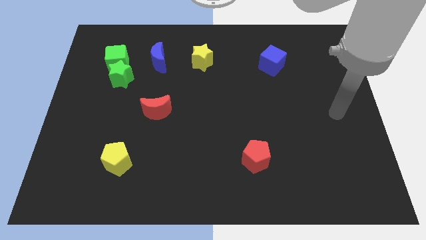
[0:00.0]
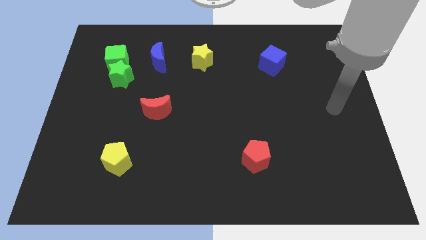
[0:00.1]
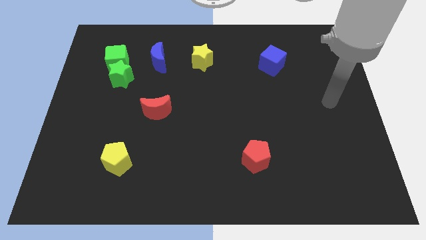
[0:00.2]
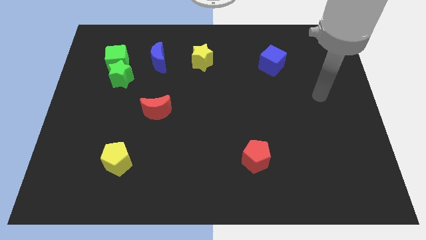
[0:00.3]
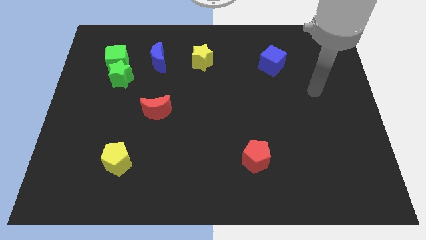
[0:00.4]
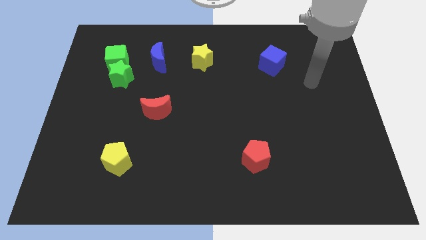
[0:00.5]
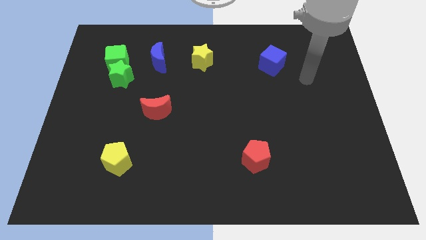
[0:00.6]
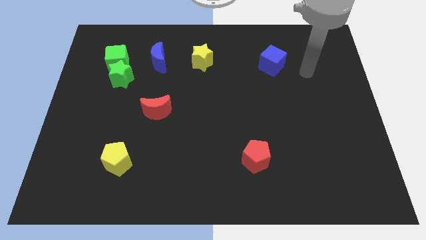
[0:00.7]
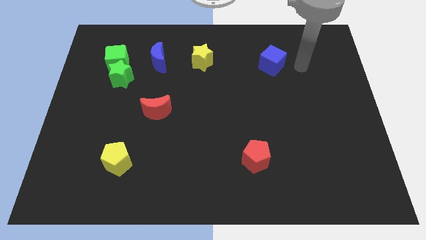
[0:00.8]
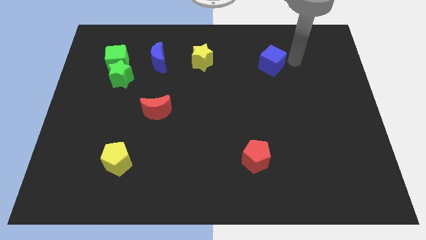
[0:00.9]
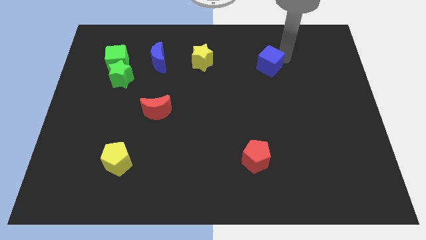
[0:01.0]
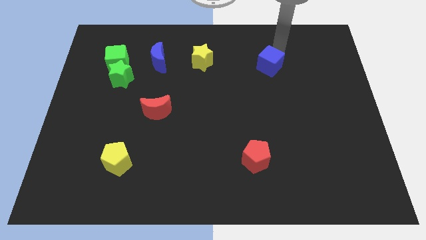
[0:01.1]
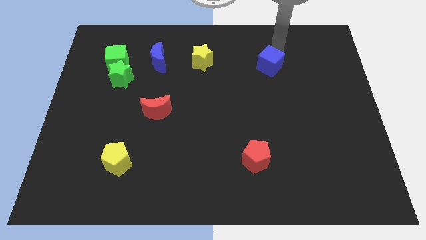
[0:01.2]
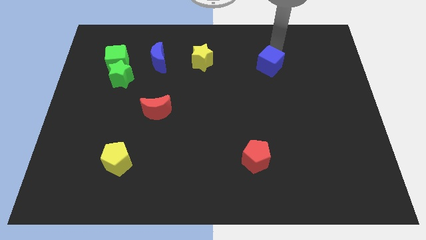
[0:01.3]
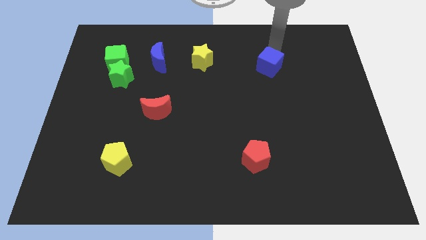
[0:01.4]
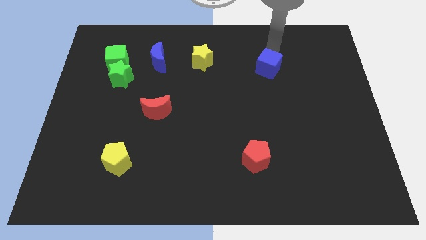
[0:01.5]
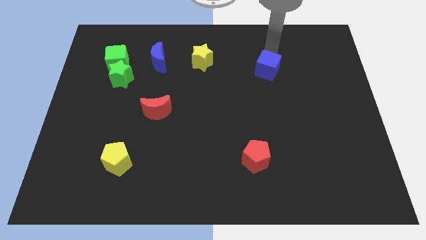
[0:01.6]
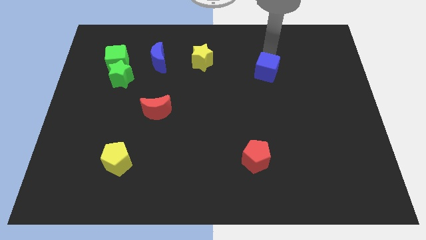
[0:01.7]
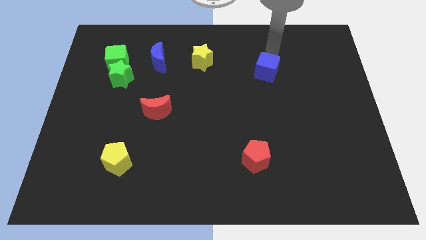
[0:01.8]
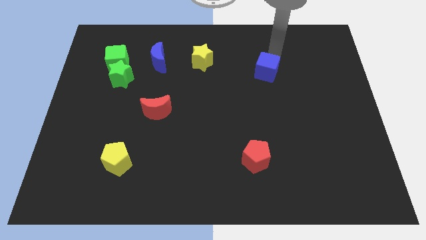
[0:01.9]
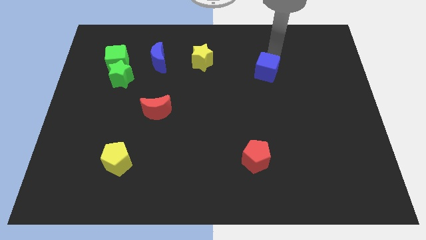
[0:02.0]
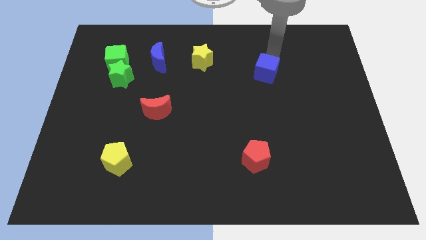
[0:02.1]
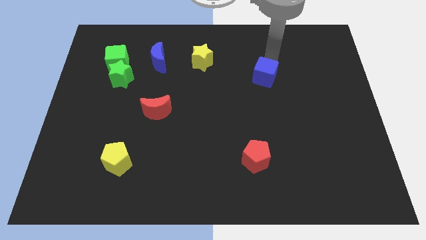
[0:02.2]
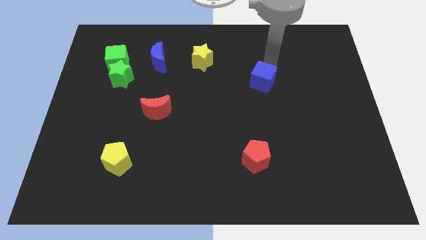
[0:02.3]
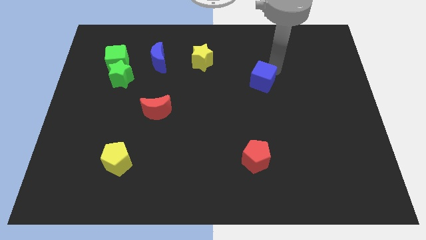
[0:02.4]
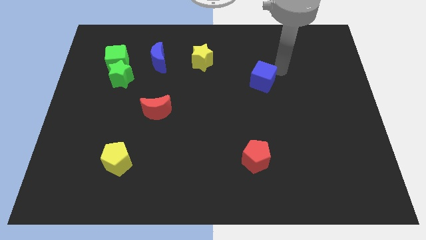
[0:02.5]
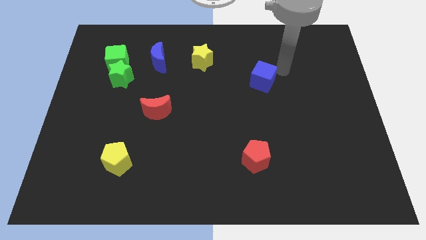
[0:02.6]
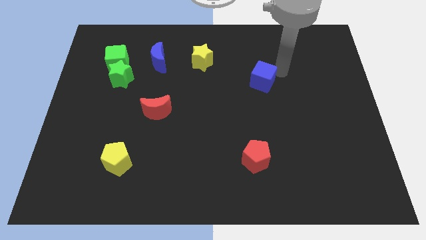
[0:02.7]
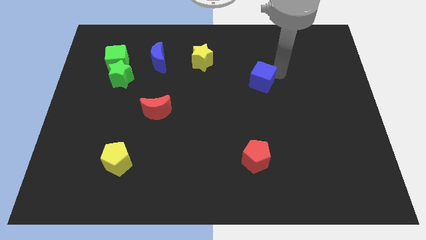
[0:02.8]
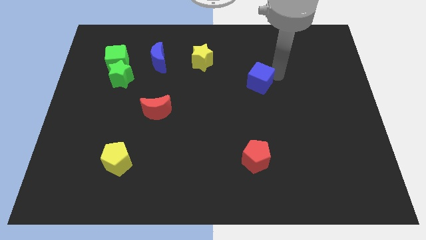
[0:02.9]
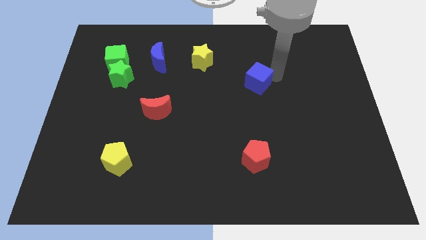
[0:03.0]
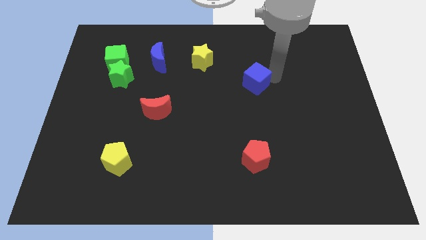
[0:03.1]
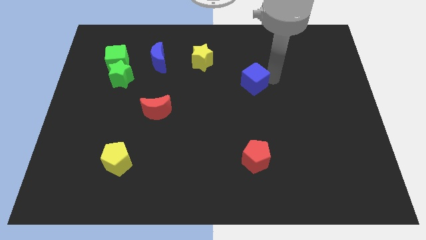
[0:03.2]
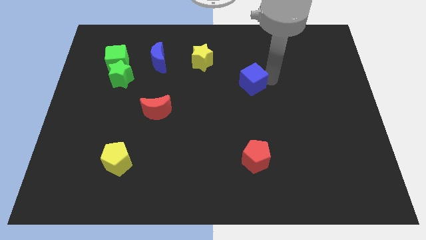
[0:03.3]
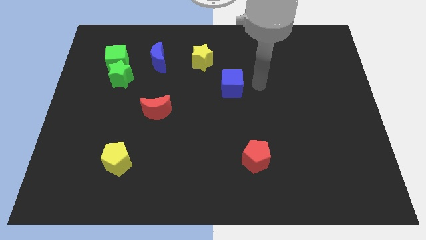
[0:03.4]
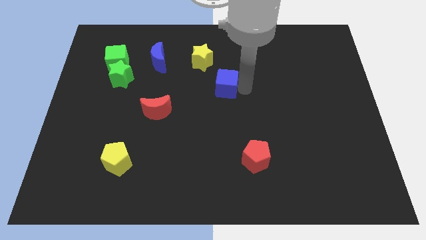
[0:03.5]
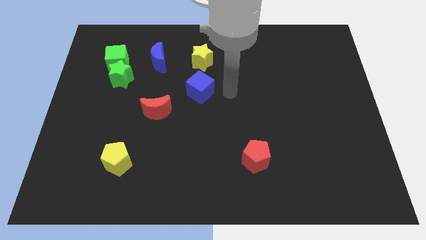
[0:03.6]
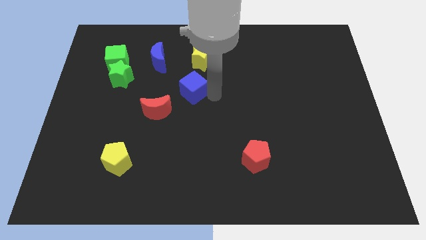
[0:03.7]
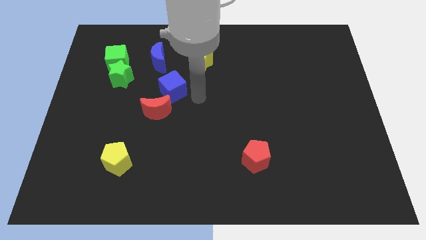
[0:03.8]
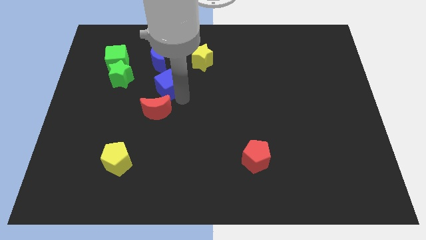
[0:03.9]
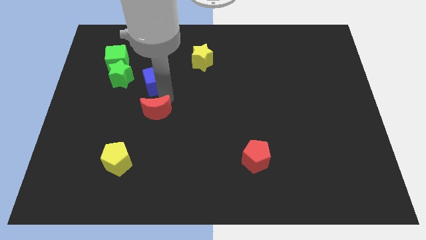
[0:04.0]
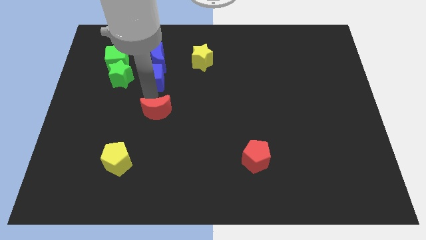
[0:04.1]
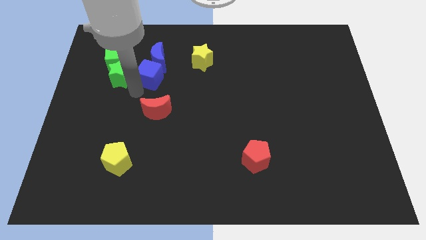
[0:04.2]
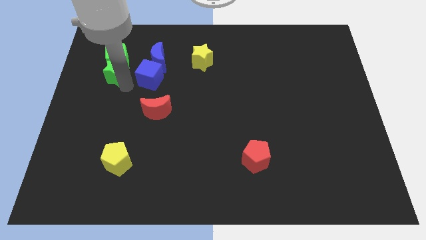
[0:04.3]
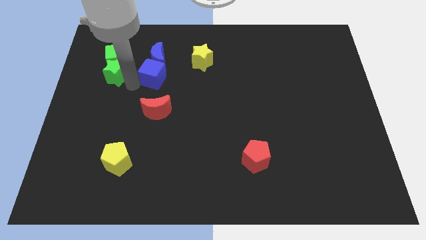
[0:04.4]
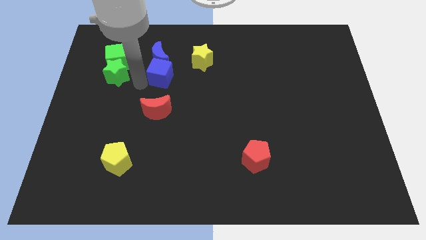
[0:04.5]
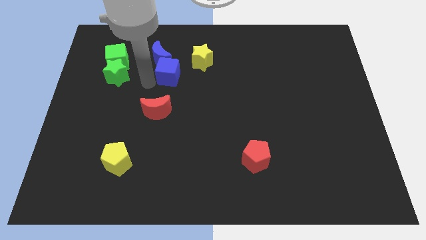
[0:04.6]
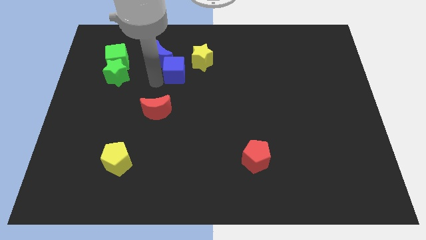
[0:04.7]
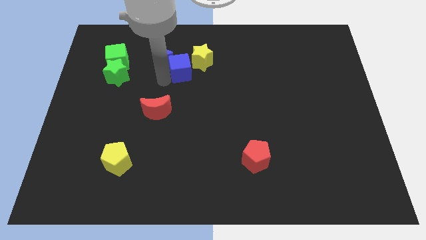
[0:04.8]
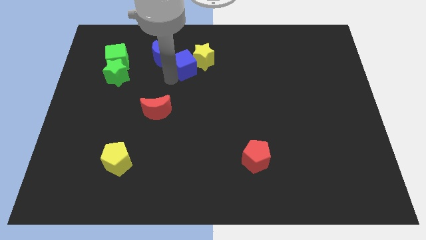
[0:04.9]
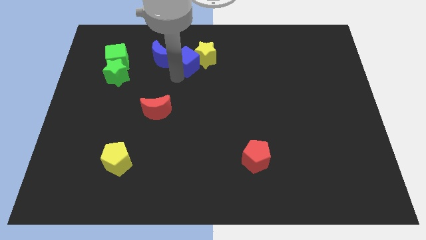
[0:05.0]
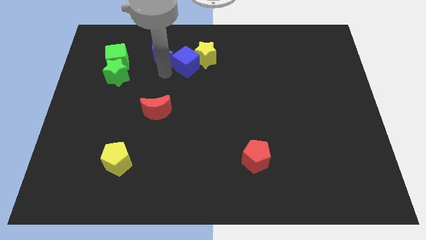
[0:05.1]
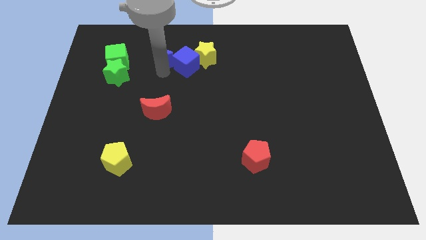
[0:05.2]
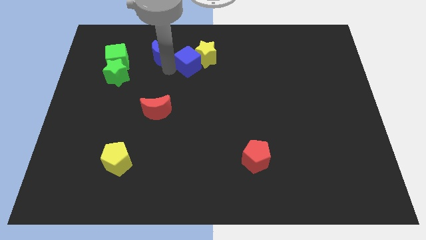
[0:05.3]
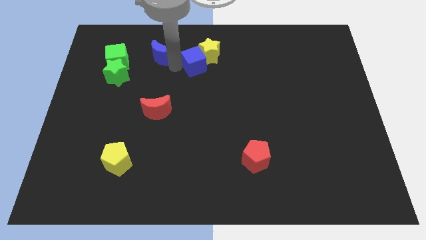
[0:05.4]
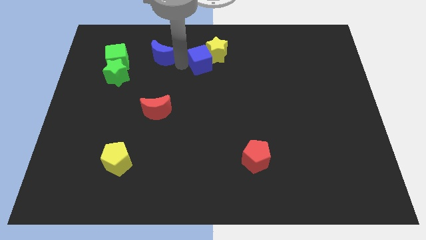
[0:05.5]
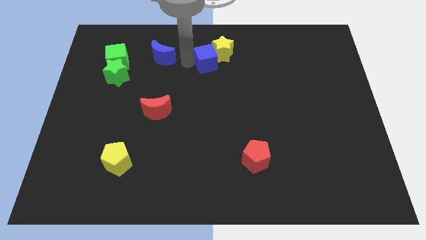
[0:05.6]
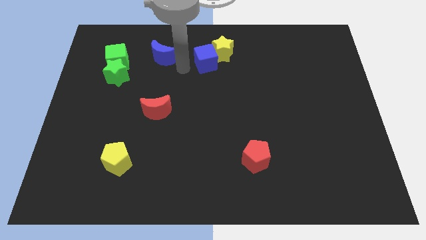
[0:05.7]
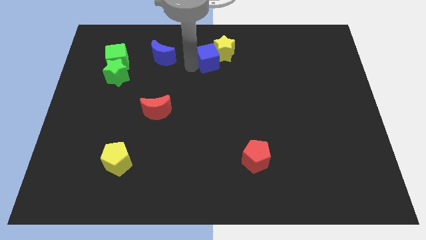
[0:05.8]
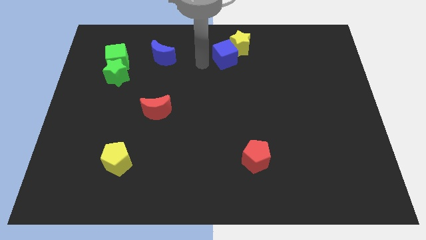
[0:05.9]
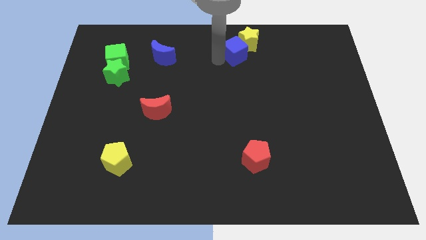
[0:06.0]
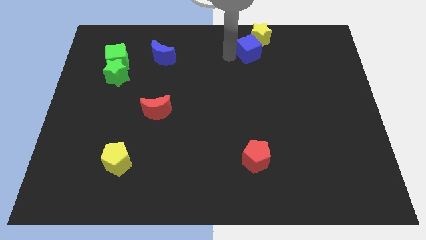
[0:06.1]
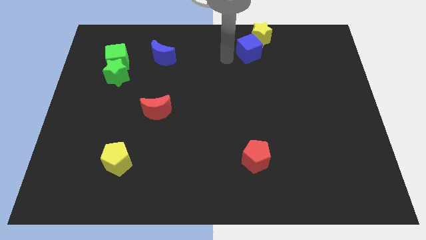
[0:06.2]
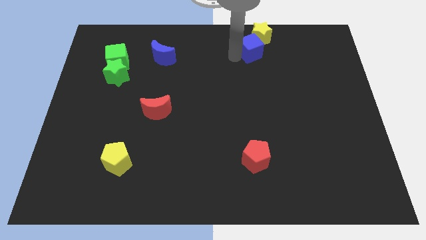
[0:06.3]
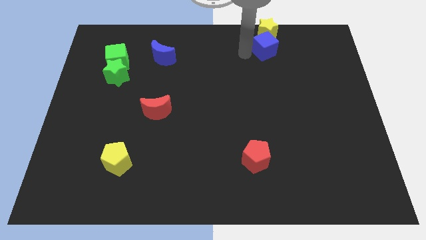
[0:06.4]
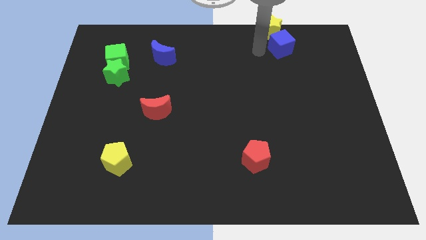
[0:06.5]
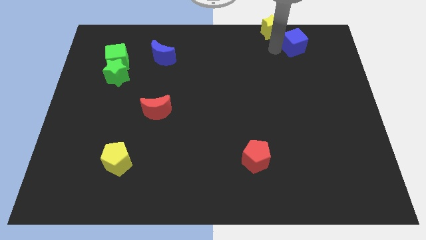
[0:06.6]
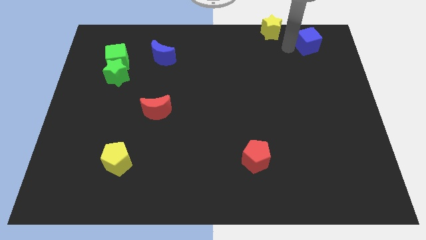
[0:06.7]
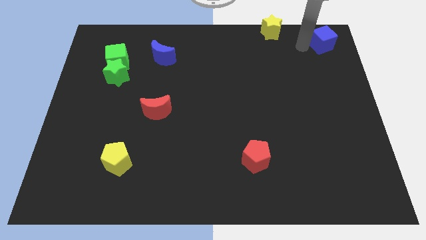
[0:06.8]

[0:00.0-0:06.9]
move the blue cube to the upper right corner
